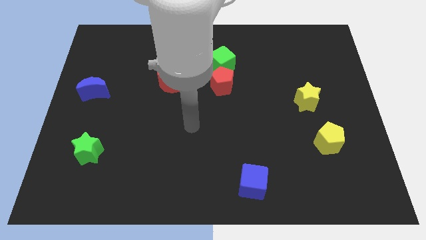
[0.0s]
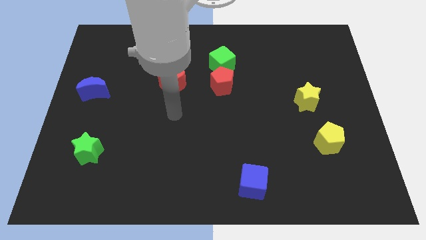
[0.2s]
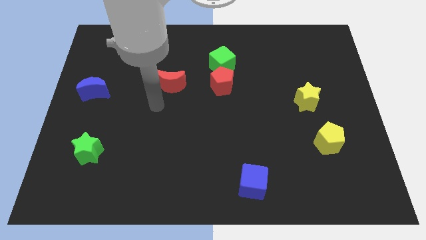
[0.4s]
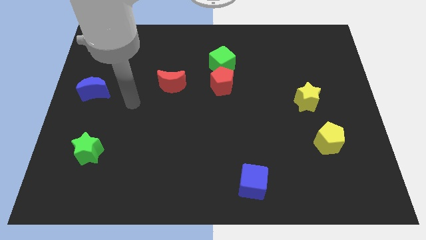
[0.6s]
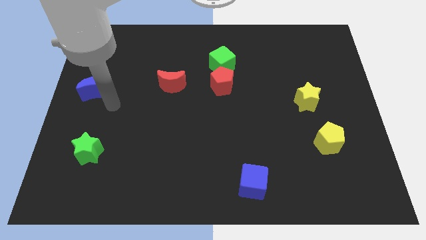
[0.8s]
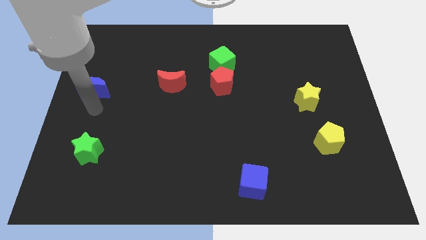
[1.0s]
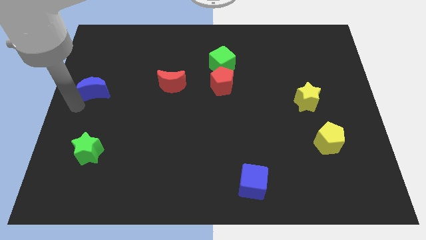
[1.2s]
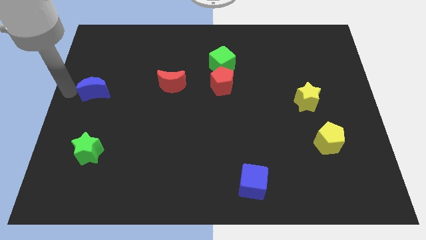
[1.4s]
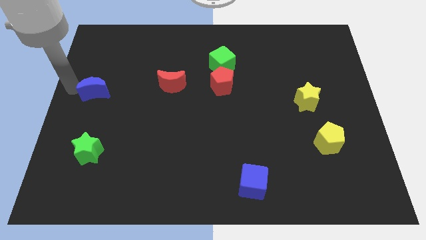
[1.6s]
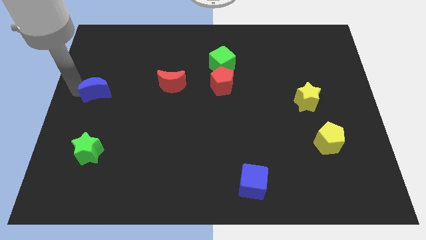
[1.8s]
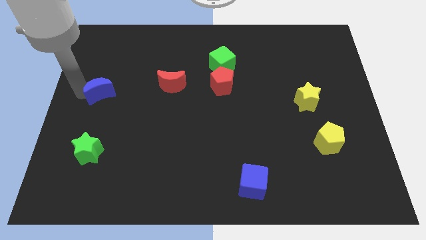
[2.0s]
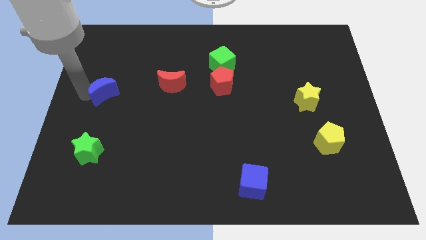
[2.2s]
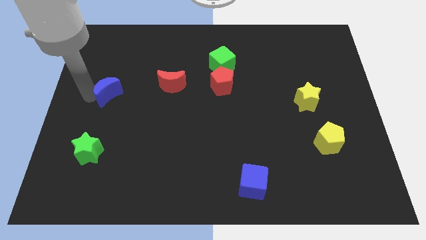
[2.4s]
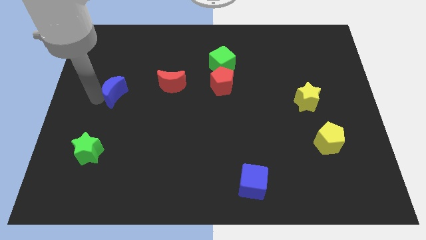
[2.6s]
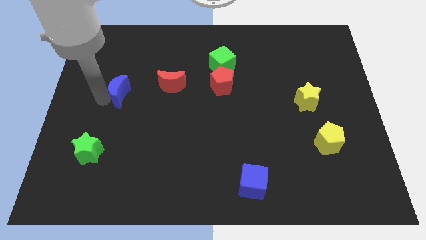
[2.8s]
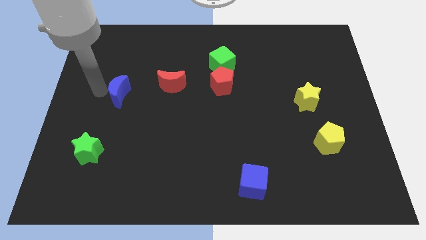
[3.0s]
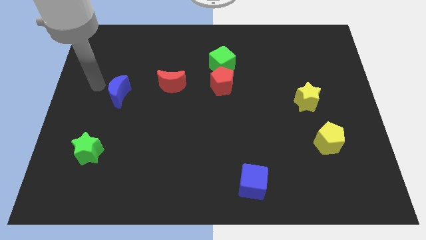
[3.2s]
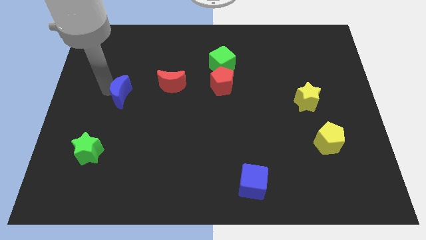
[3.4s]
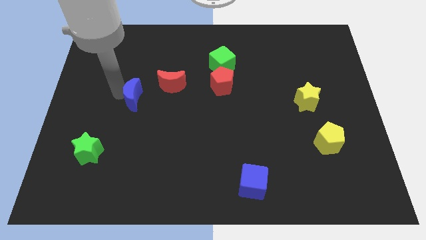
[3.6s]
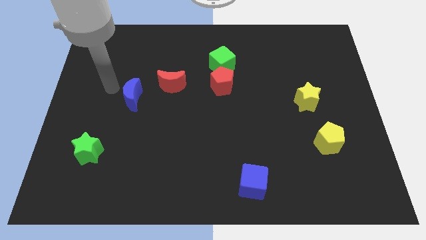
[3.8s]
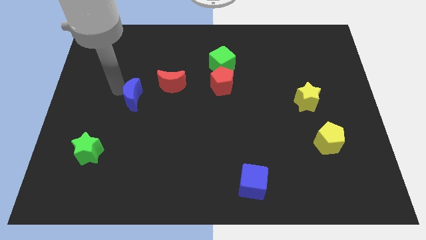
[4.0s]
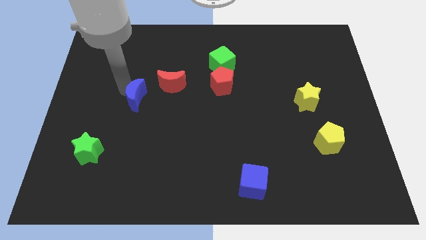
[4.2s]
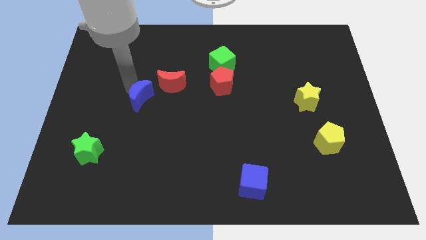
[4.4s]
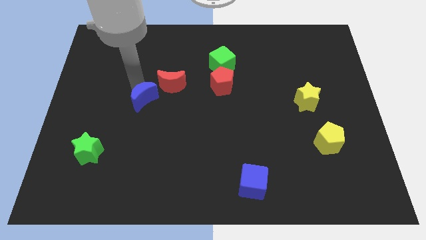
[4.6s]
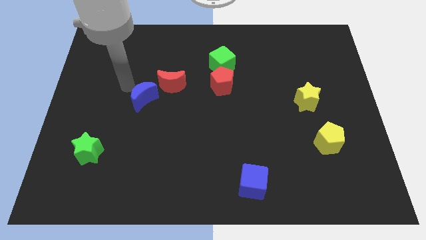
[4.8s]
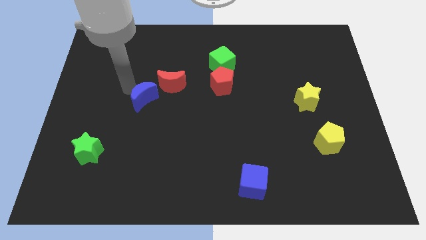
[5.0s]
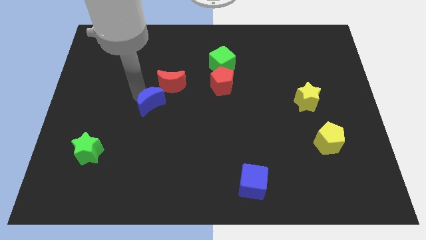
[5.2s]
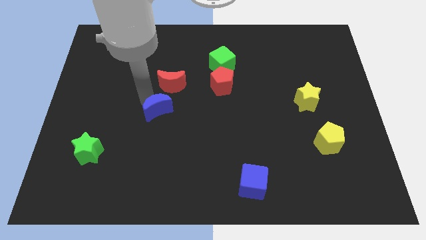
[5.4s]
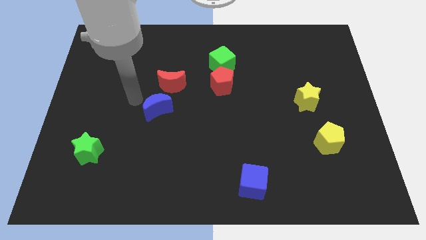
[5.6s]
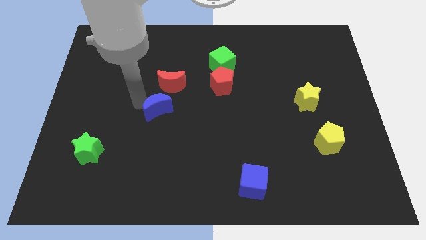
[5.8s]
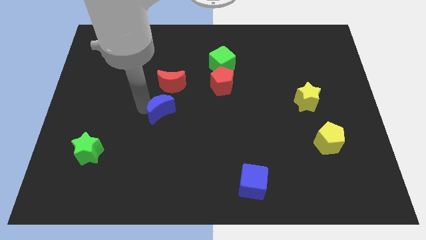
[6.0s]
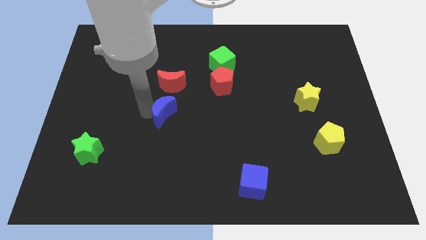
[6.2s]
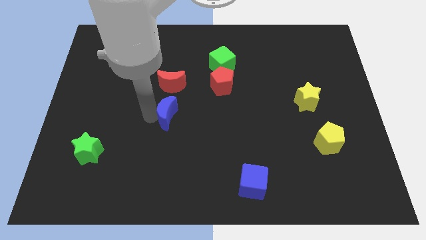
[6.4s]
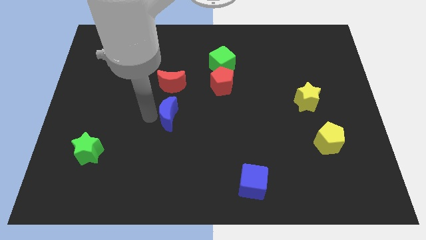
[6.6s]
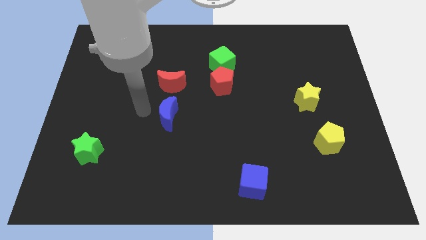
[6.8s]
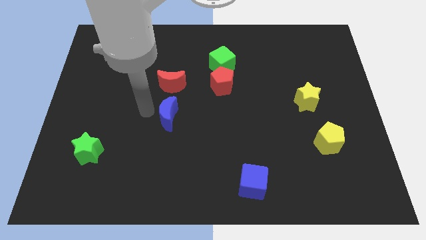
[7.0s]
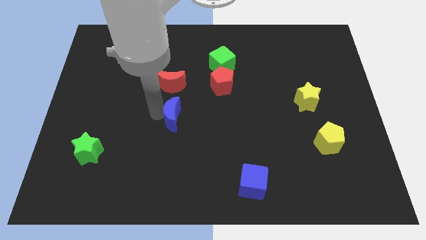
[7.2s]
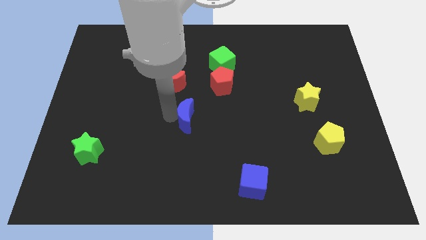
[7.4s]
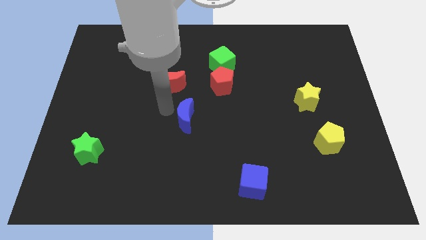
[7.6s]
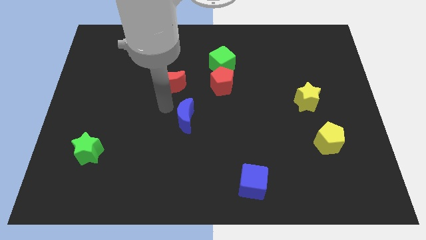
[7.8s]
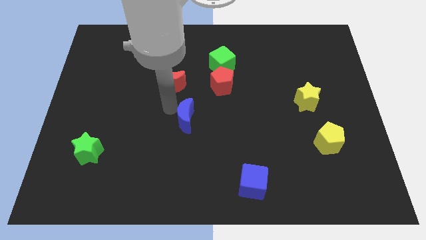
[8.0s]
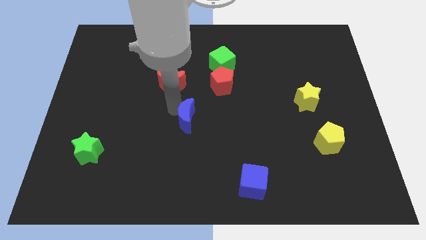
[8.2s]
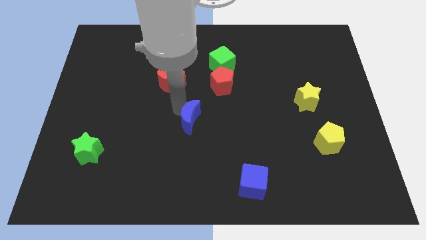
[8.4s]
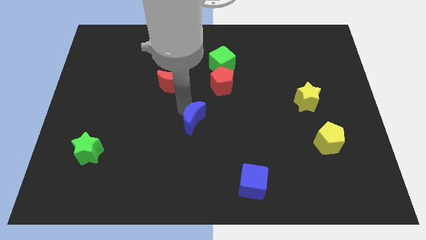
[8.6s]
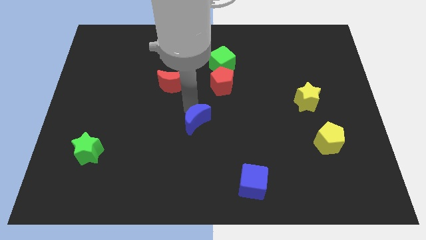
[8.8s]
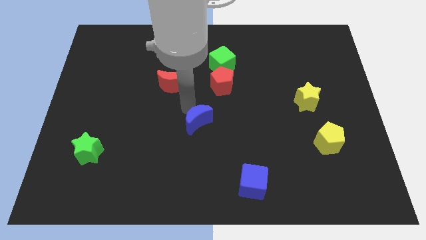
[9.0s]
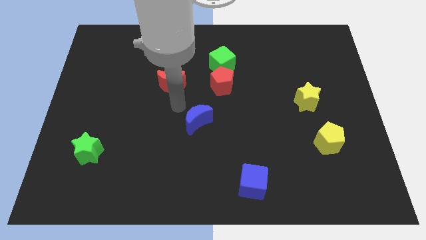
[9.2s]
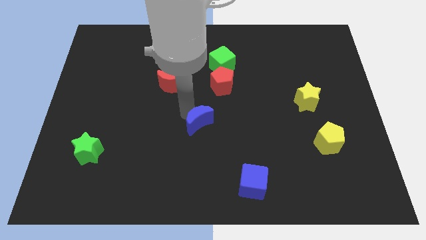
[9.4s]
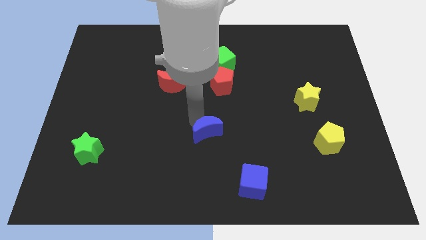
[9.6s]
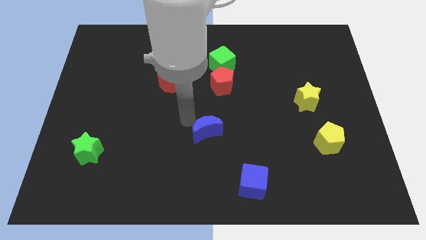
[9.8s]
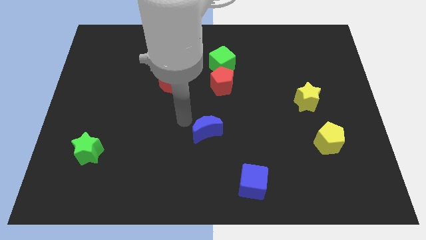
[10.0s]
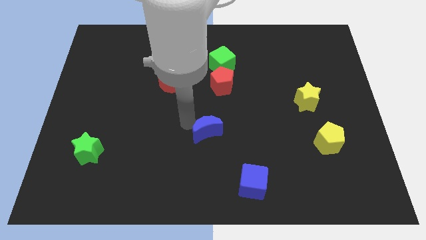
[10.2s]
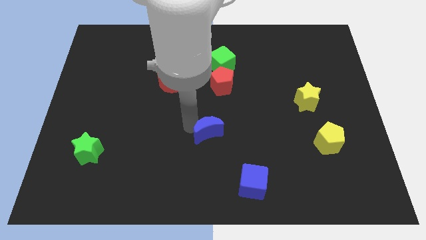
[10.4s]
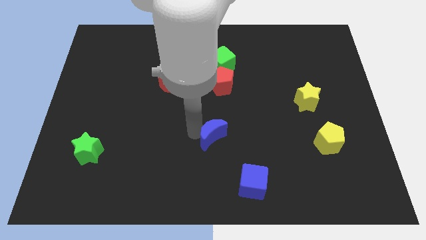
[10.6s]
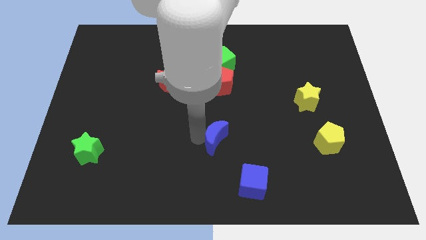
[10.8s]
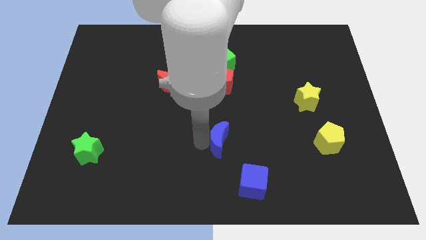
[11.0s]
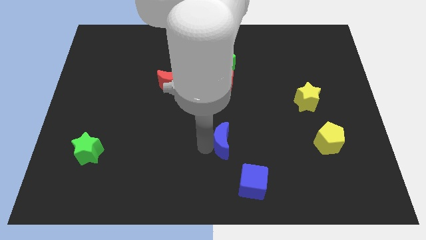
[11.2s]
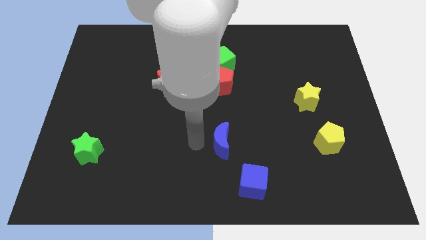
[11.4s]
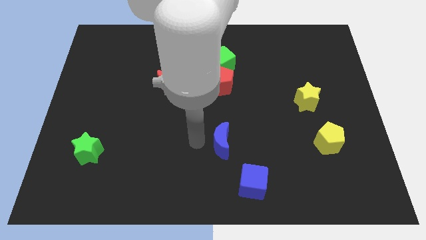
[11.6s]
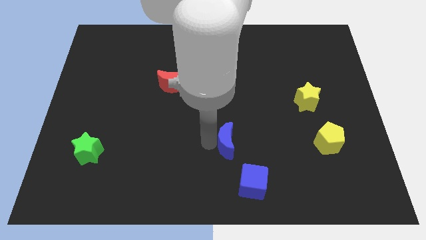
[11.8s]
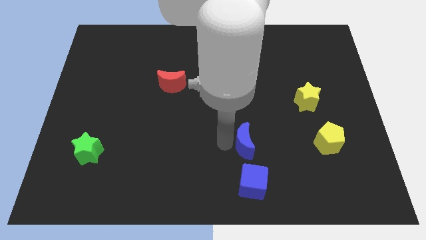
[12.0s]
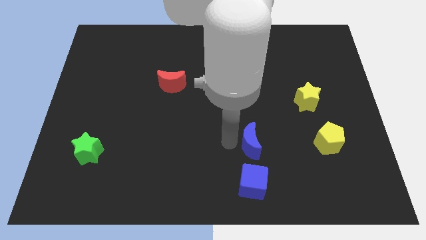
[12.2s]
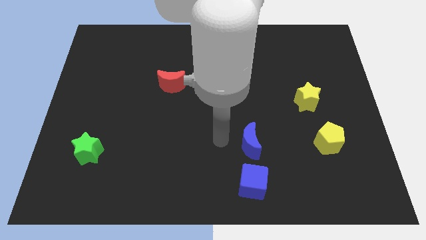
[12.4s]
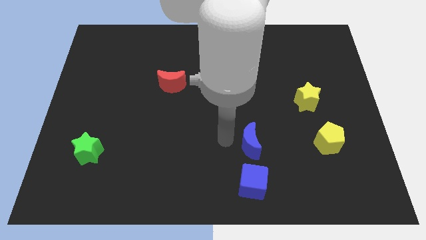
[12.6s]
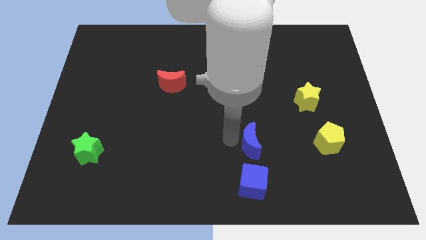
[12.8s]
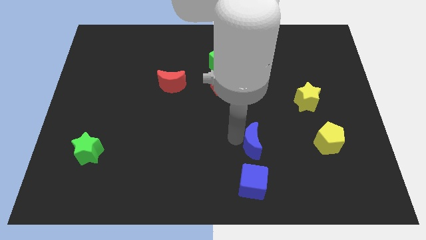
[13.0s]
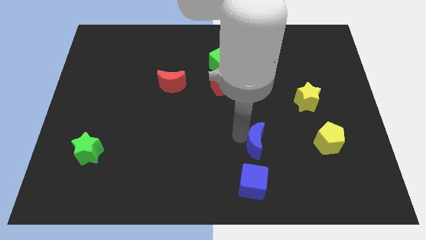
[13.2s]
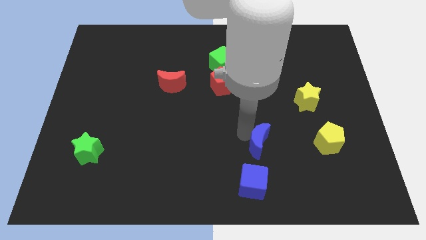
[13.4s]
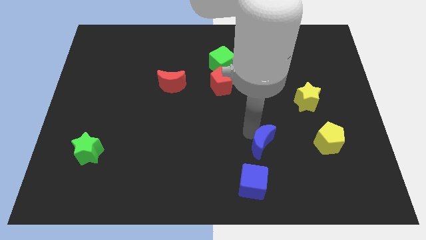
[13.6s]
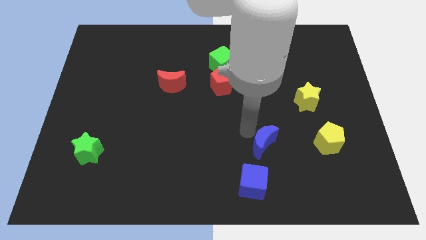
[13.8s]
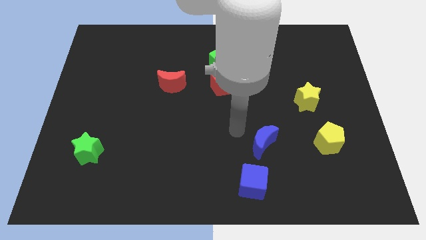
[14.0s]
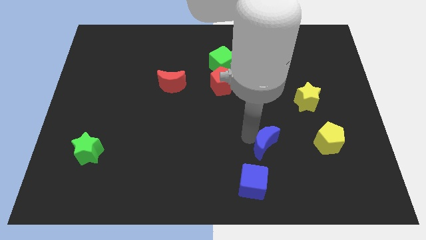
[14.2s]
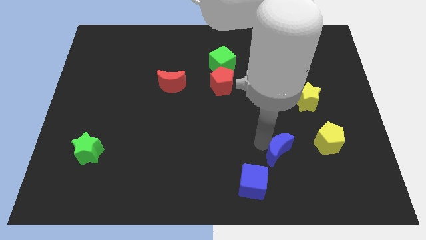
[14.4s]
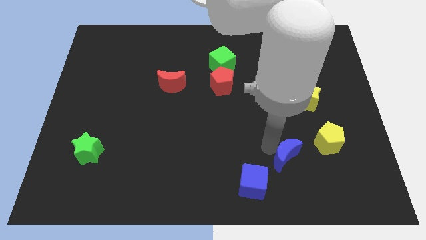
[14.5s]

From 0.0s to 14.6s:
put the blue moon to the bottom left side of the yellow pentagon

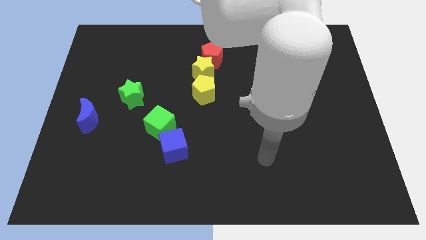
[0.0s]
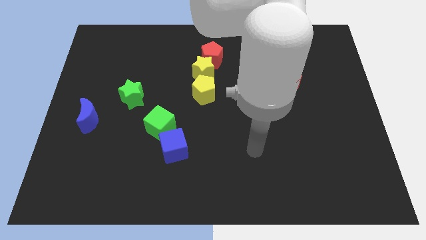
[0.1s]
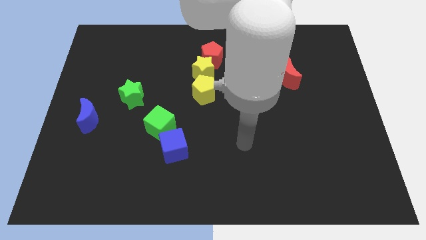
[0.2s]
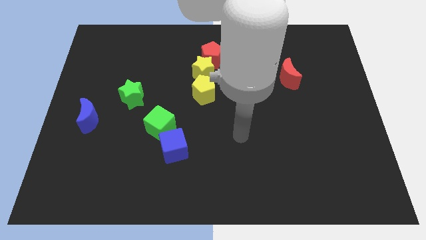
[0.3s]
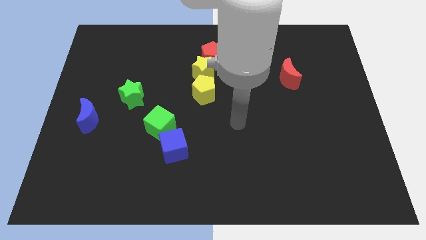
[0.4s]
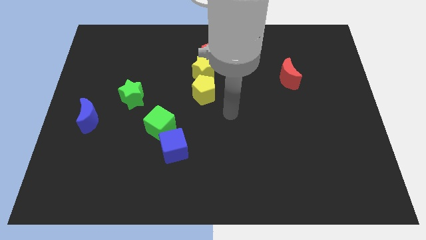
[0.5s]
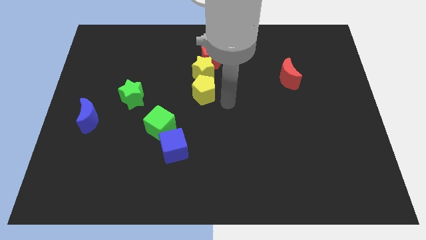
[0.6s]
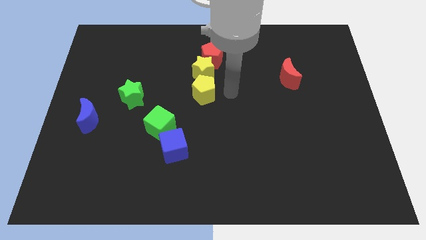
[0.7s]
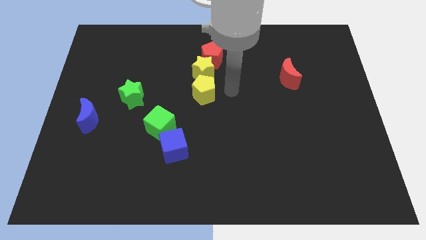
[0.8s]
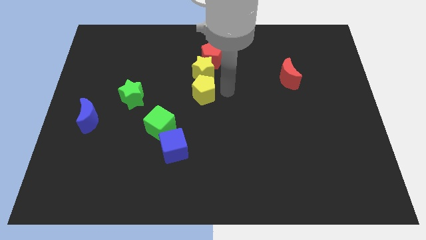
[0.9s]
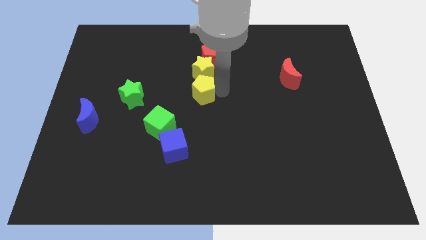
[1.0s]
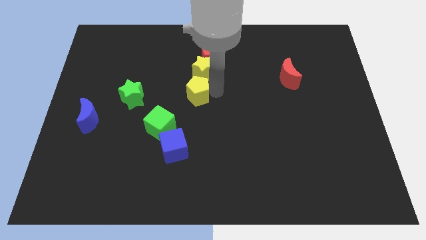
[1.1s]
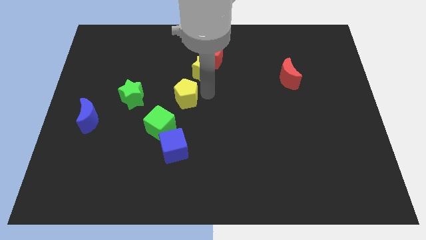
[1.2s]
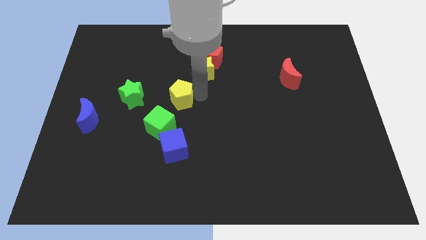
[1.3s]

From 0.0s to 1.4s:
put the yellow pentagon to the top side of the green cube
